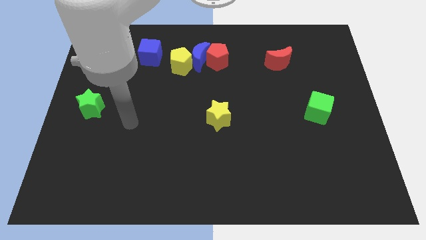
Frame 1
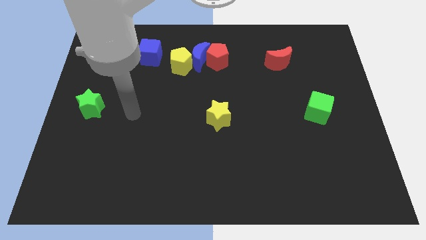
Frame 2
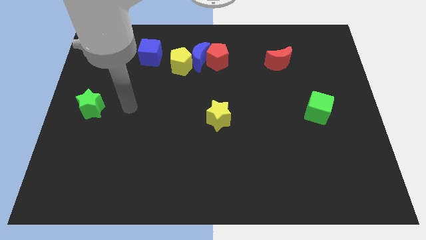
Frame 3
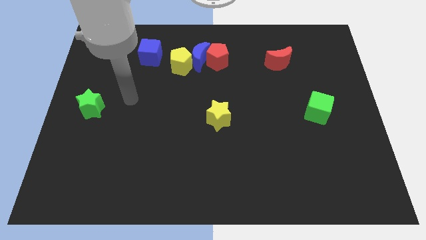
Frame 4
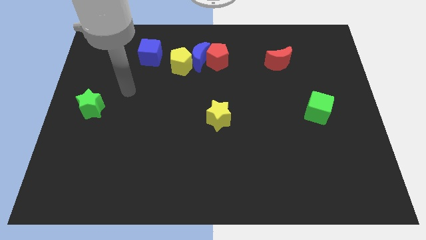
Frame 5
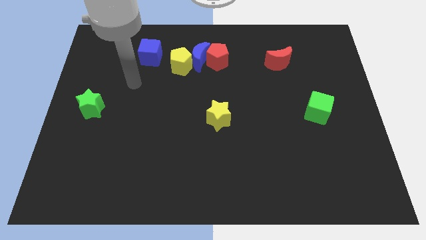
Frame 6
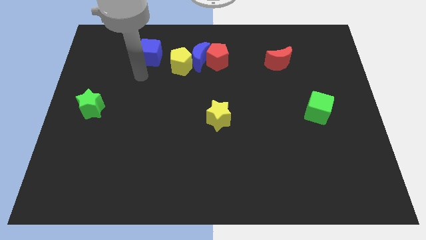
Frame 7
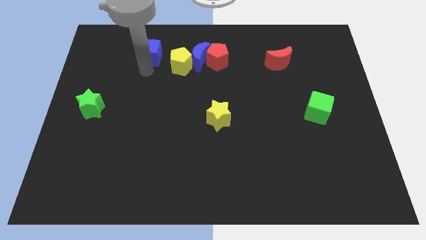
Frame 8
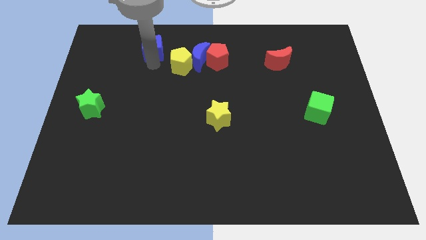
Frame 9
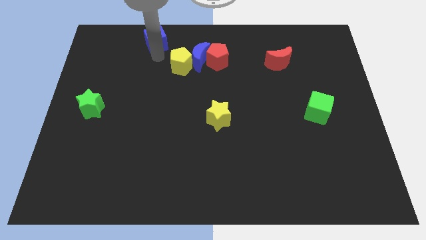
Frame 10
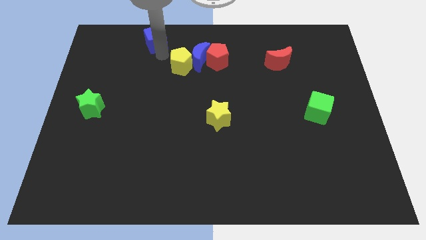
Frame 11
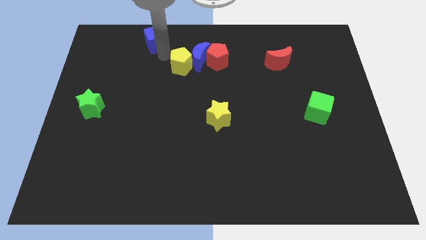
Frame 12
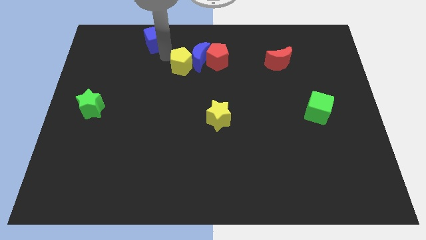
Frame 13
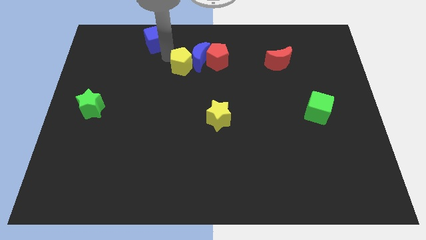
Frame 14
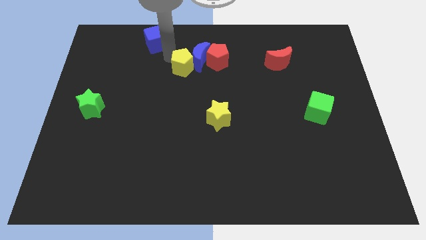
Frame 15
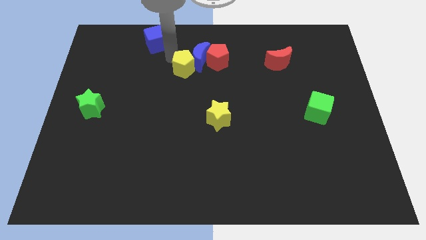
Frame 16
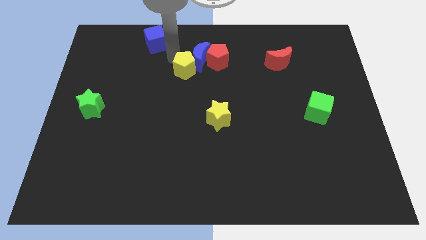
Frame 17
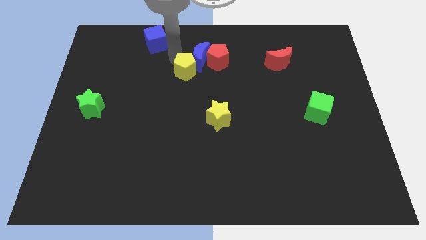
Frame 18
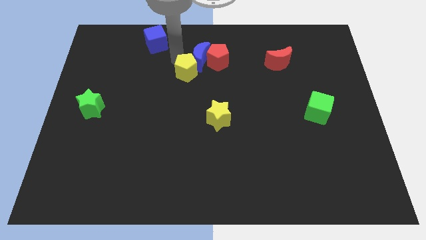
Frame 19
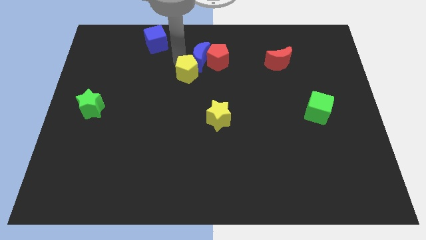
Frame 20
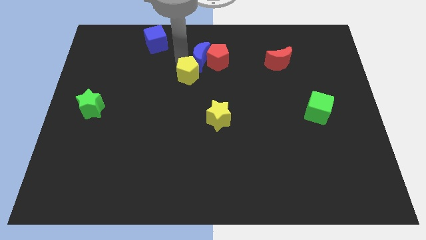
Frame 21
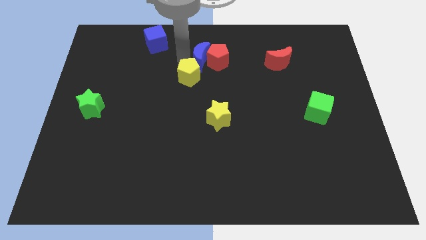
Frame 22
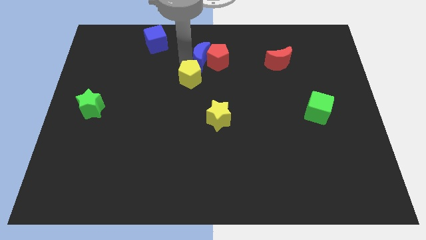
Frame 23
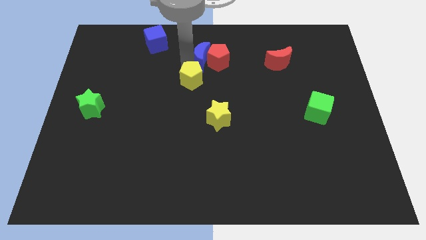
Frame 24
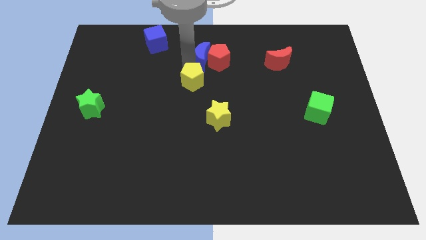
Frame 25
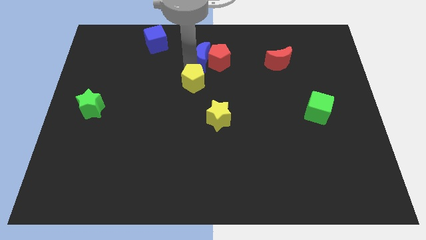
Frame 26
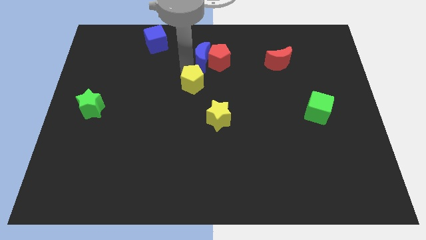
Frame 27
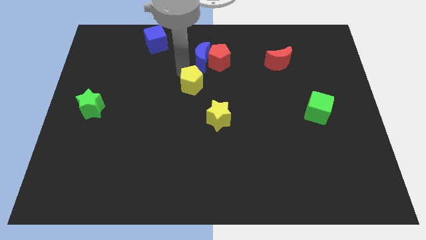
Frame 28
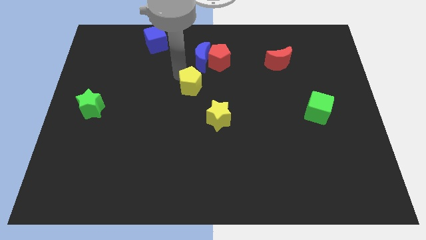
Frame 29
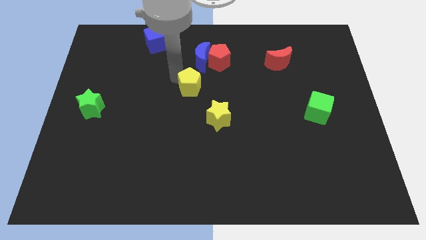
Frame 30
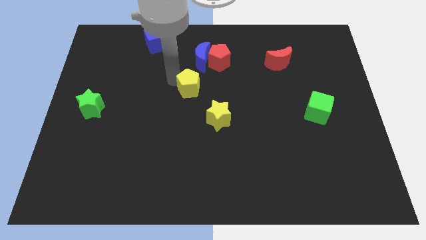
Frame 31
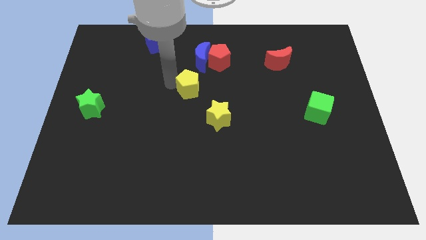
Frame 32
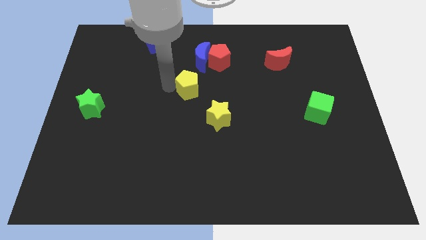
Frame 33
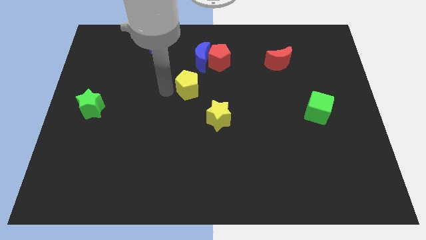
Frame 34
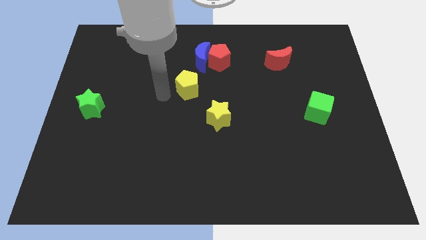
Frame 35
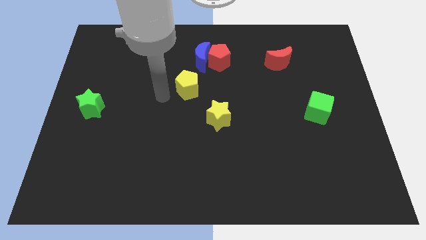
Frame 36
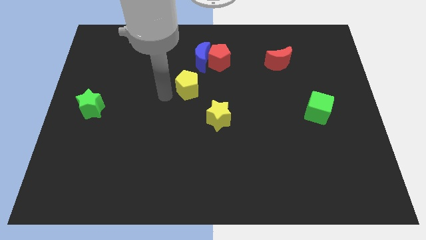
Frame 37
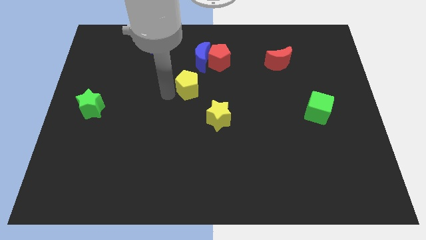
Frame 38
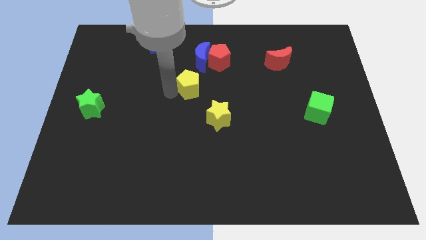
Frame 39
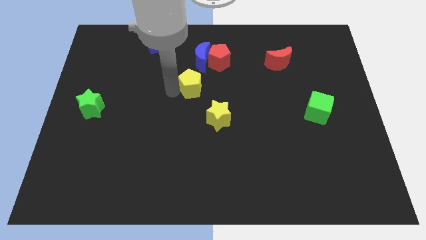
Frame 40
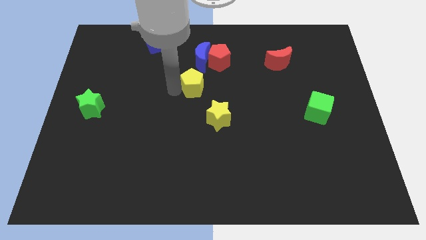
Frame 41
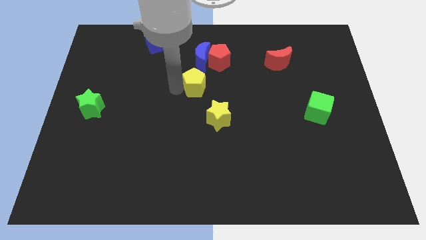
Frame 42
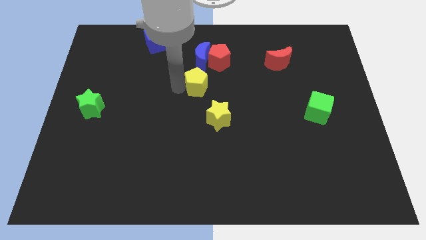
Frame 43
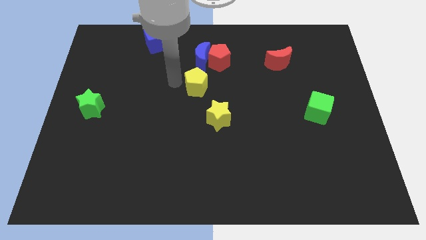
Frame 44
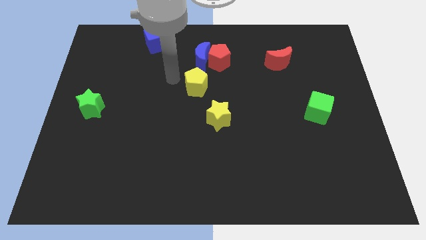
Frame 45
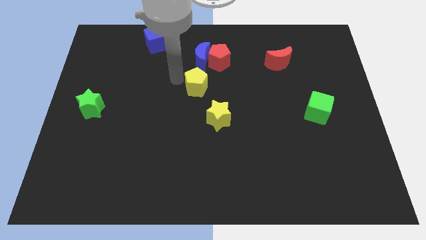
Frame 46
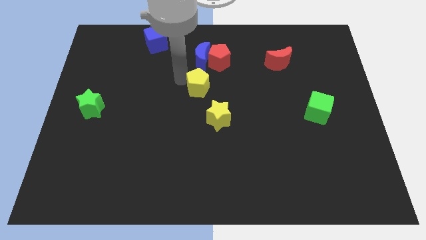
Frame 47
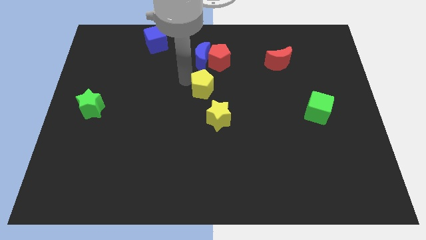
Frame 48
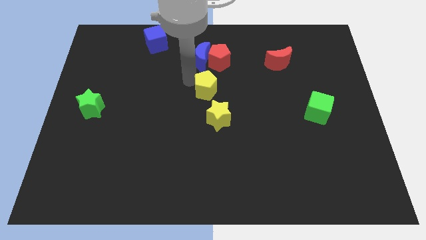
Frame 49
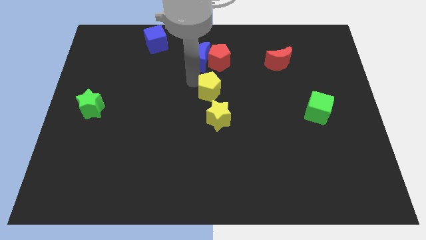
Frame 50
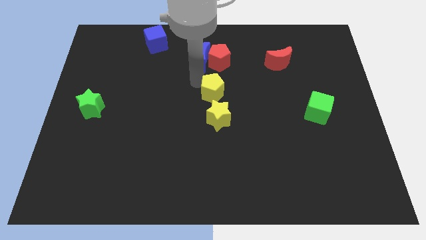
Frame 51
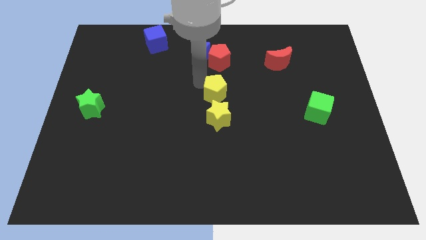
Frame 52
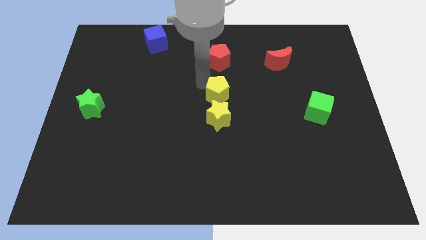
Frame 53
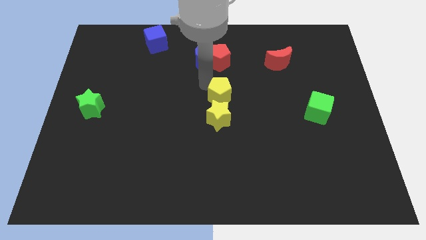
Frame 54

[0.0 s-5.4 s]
push the yellow pentagon to the top right of the yellow star

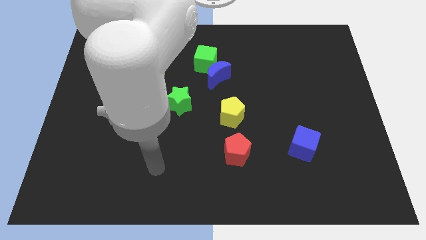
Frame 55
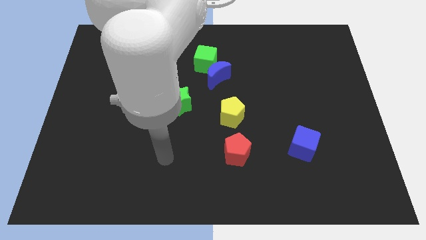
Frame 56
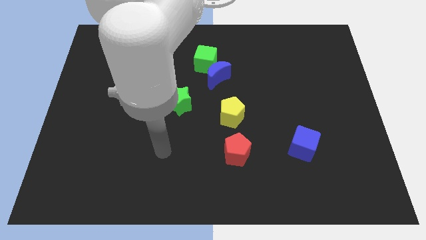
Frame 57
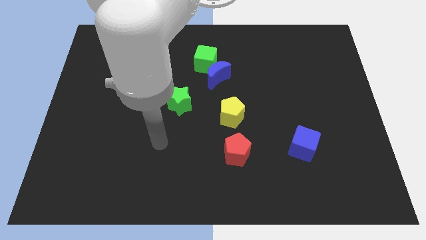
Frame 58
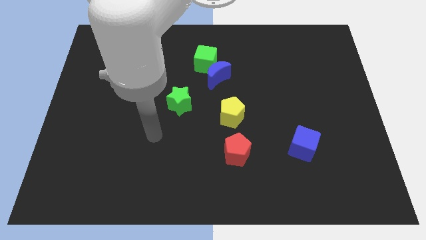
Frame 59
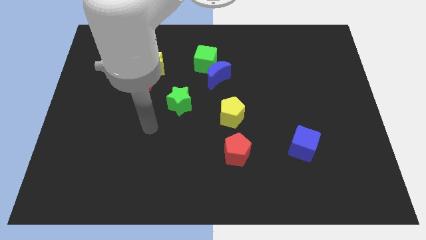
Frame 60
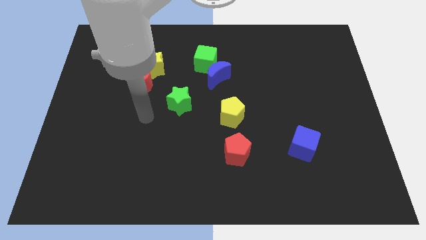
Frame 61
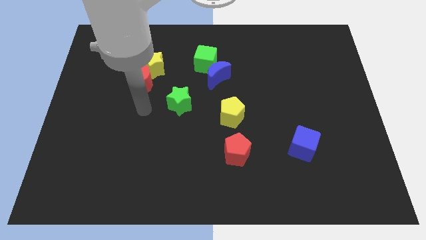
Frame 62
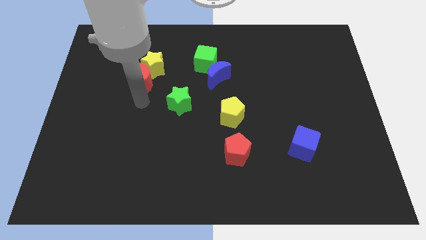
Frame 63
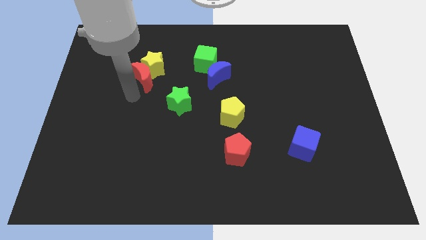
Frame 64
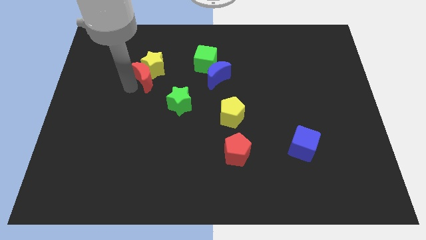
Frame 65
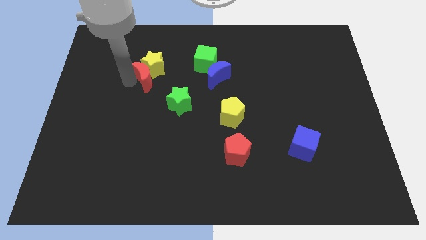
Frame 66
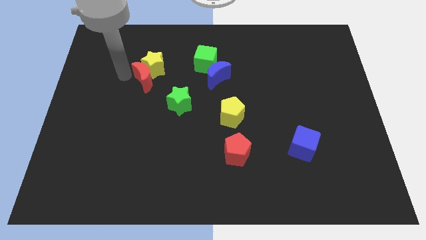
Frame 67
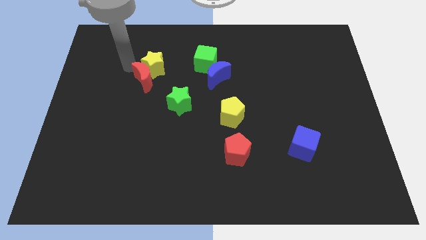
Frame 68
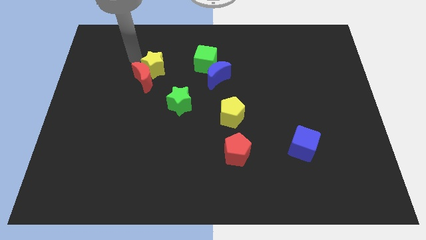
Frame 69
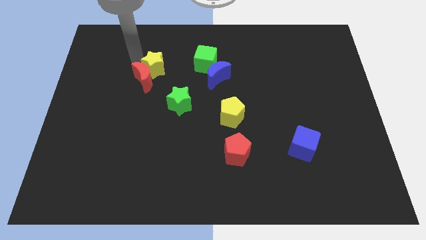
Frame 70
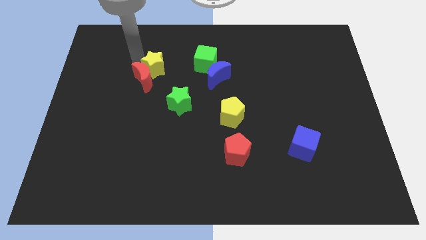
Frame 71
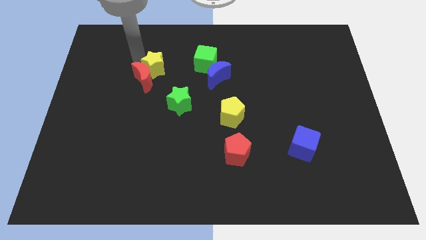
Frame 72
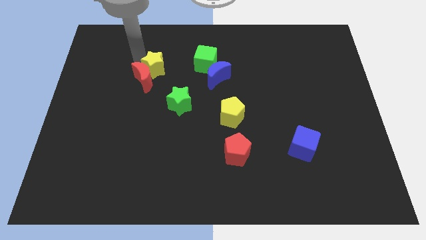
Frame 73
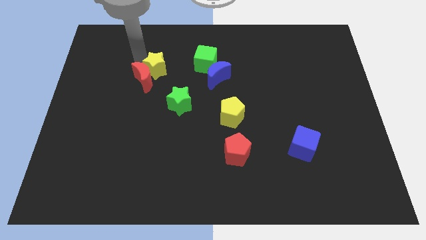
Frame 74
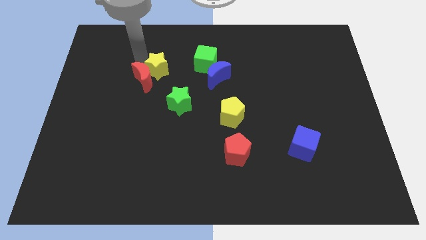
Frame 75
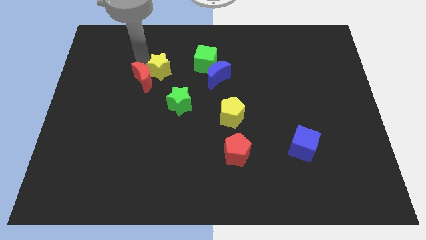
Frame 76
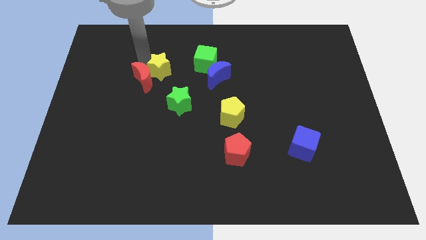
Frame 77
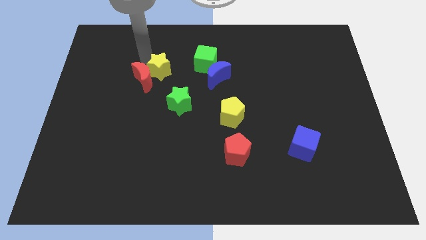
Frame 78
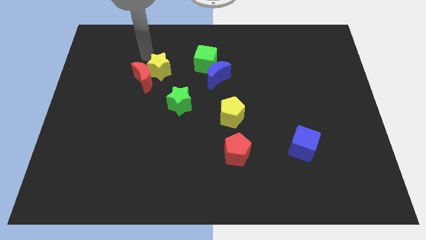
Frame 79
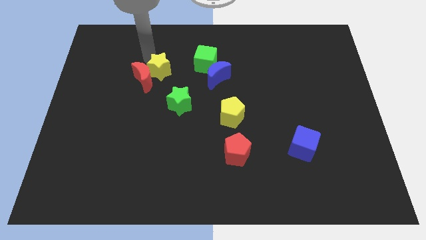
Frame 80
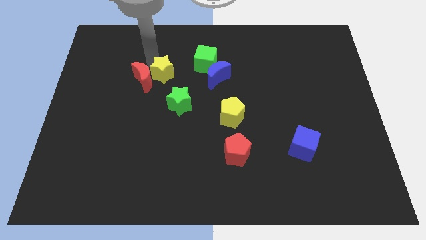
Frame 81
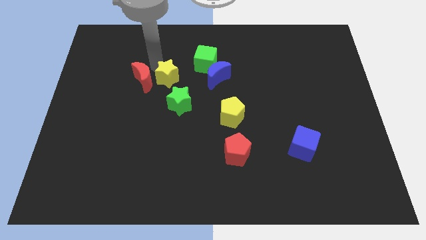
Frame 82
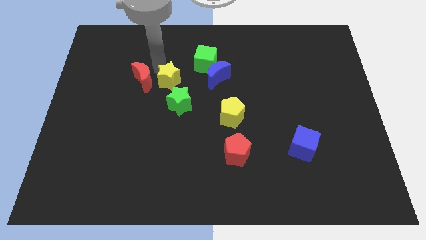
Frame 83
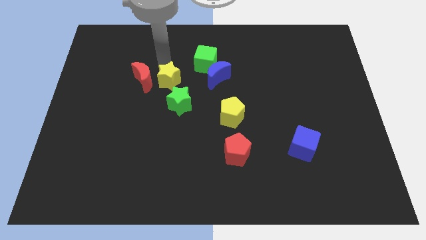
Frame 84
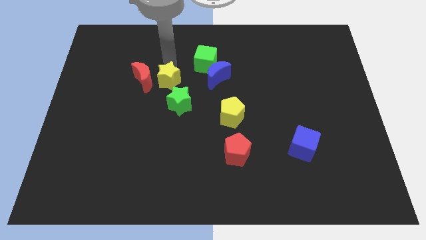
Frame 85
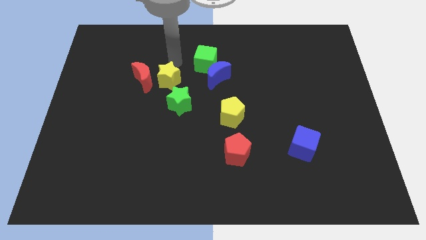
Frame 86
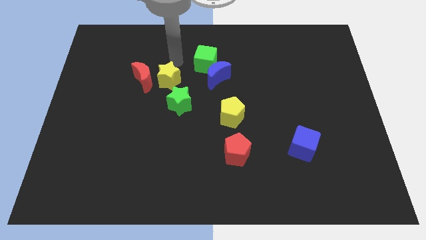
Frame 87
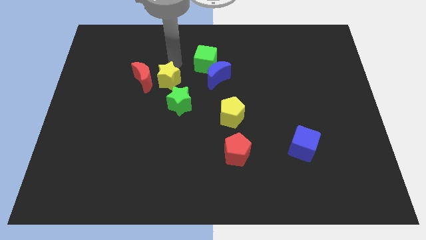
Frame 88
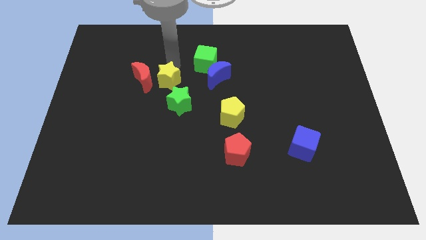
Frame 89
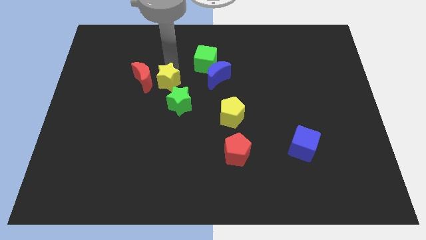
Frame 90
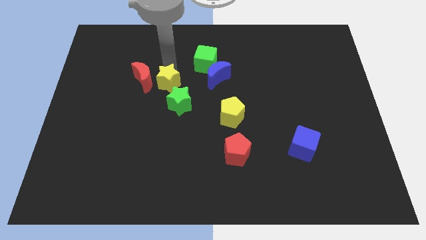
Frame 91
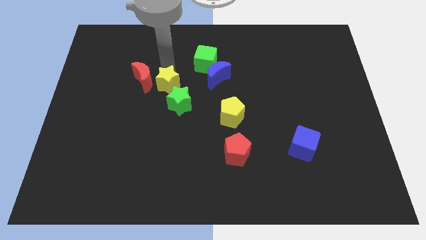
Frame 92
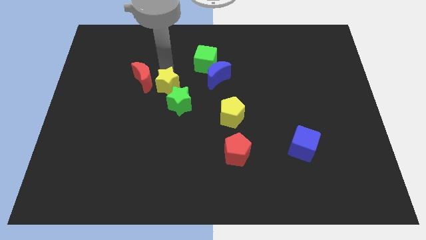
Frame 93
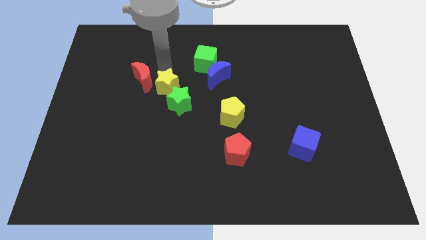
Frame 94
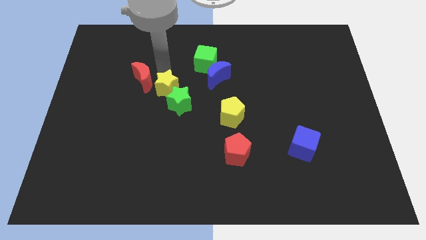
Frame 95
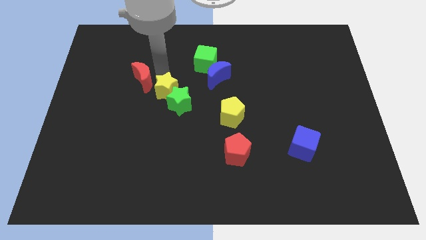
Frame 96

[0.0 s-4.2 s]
push the yellow star just left of the green star
